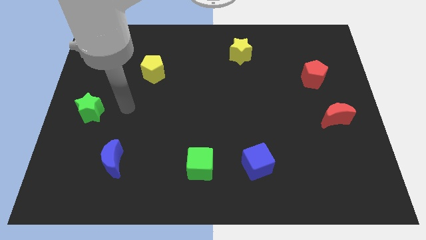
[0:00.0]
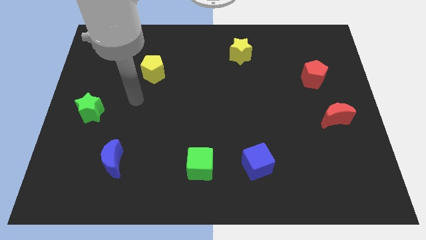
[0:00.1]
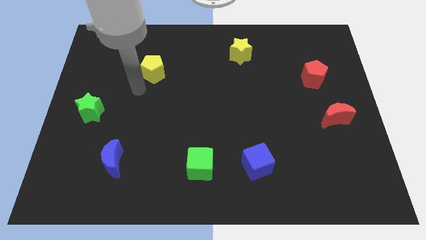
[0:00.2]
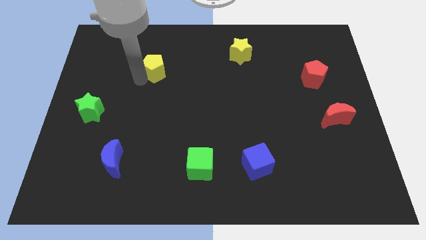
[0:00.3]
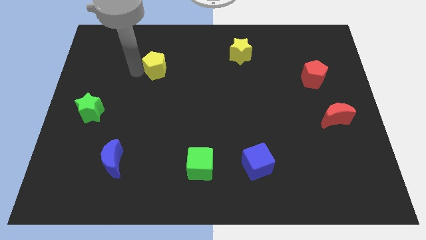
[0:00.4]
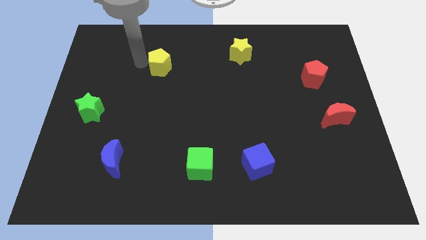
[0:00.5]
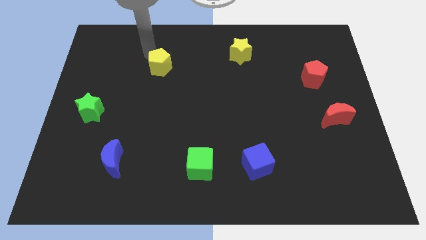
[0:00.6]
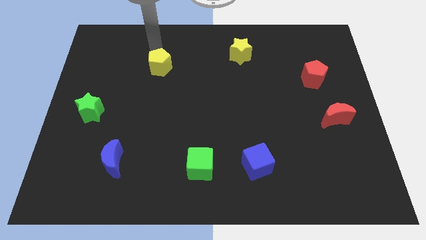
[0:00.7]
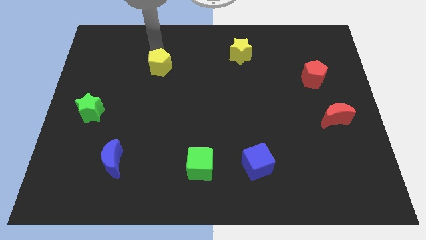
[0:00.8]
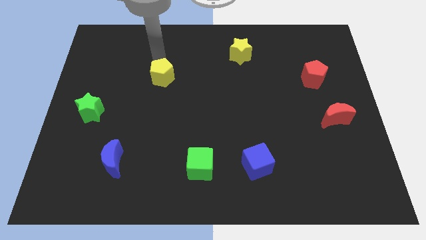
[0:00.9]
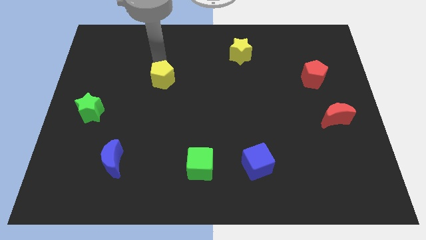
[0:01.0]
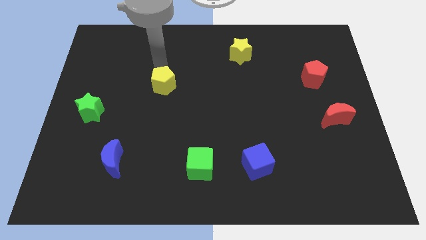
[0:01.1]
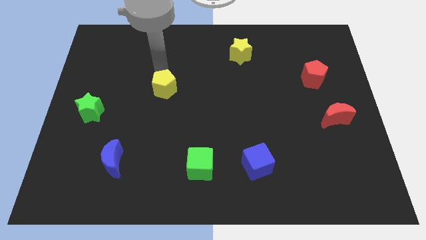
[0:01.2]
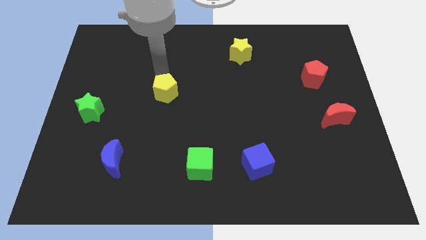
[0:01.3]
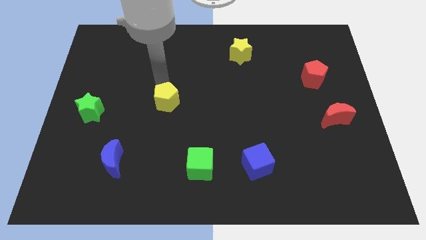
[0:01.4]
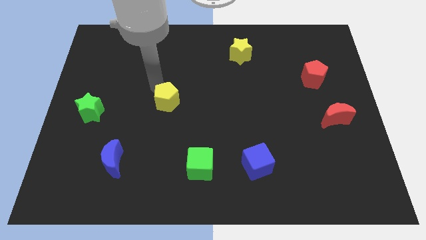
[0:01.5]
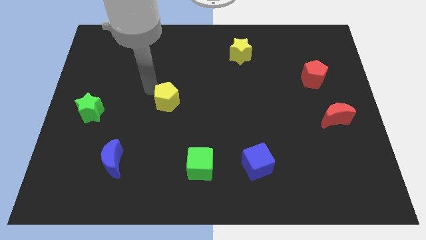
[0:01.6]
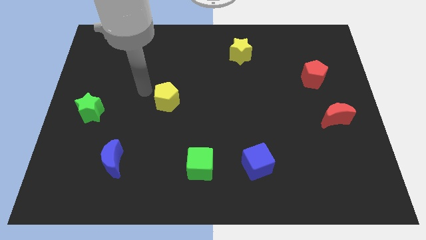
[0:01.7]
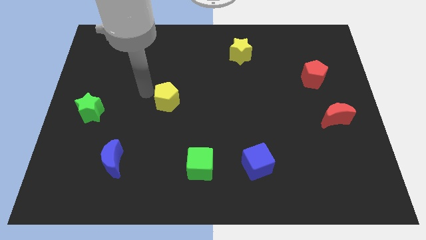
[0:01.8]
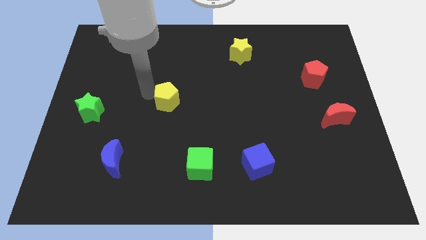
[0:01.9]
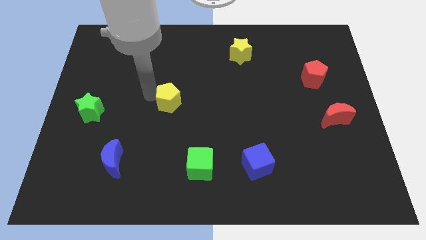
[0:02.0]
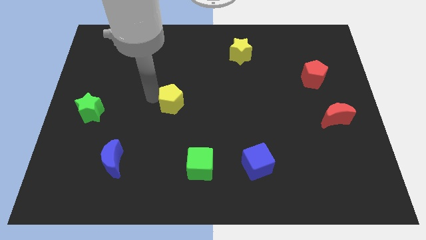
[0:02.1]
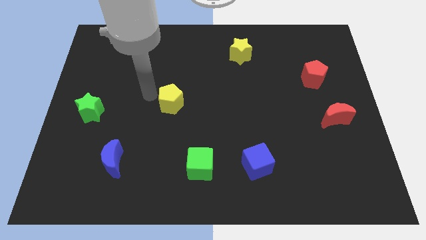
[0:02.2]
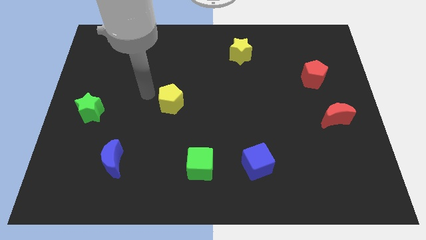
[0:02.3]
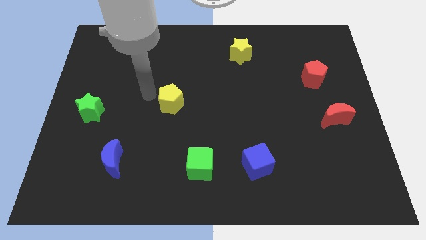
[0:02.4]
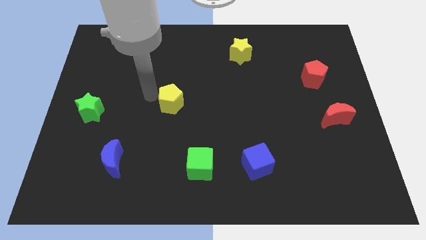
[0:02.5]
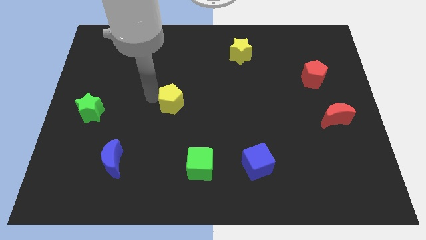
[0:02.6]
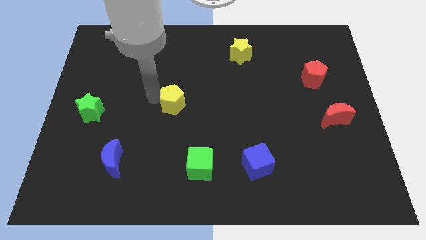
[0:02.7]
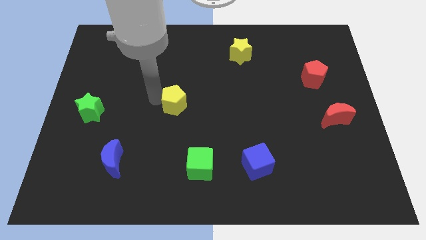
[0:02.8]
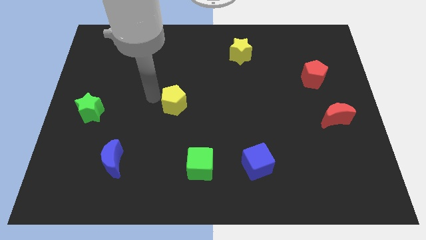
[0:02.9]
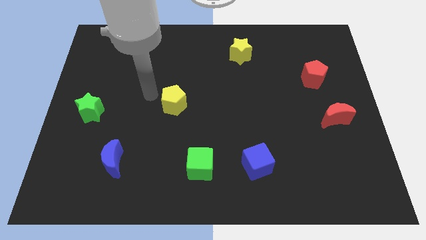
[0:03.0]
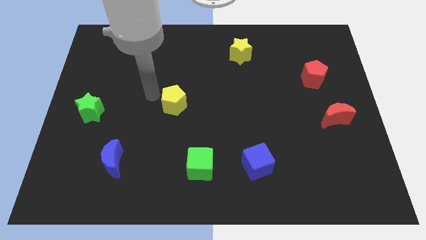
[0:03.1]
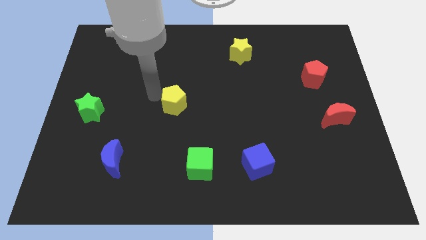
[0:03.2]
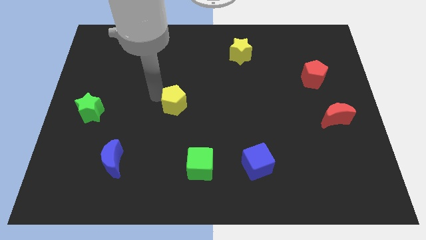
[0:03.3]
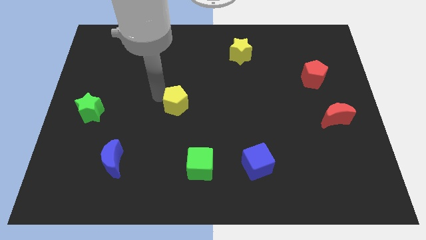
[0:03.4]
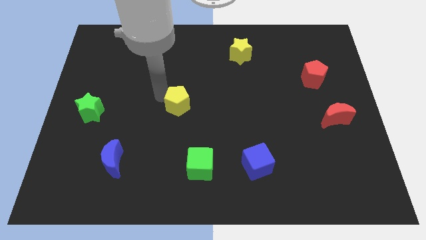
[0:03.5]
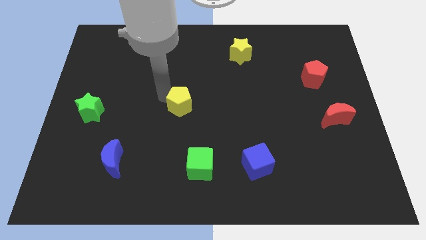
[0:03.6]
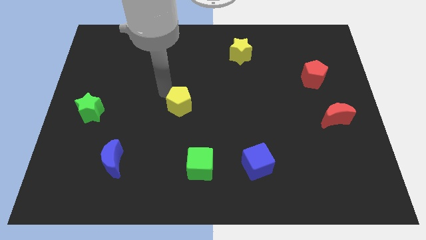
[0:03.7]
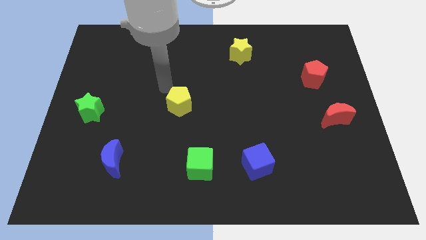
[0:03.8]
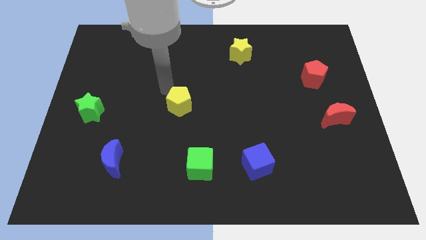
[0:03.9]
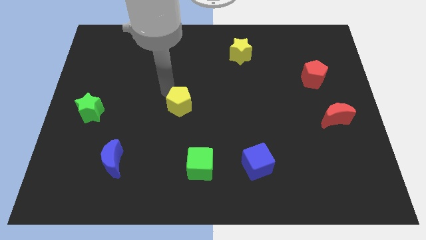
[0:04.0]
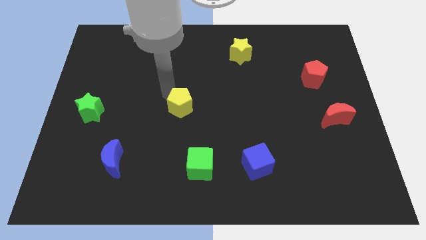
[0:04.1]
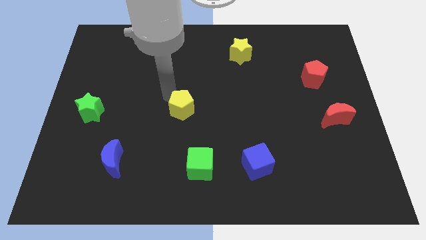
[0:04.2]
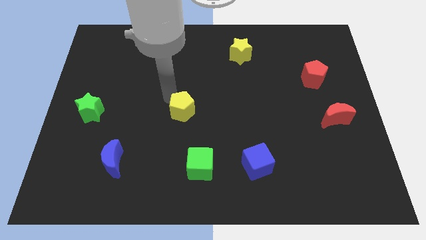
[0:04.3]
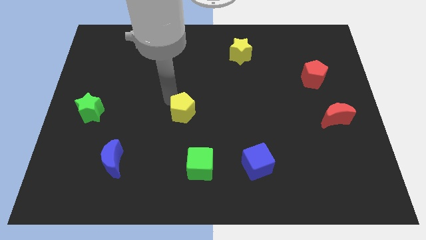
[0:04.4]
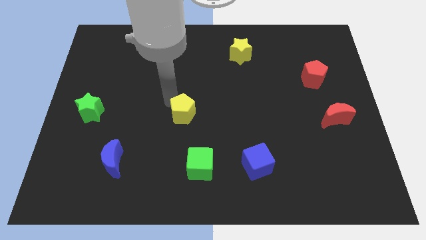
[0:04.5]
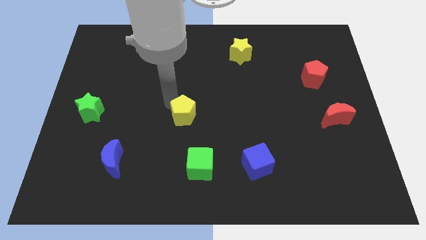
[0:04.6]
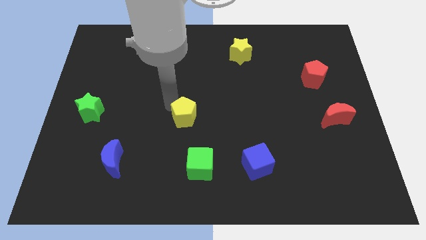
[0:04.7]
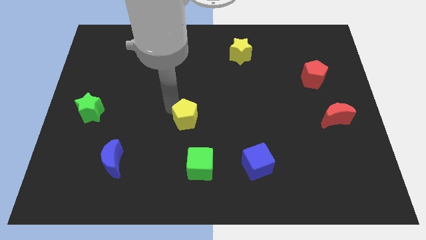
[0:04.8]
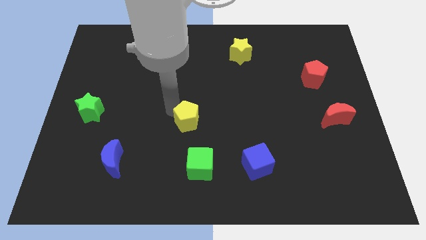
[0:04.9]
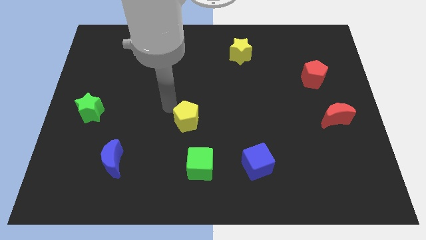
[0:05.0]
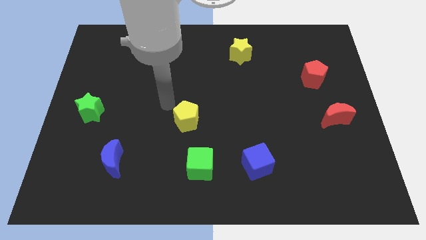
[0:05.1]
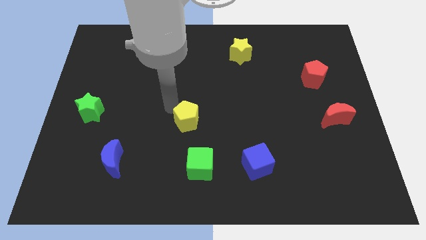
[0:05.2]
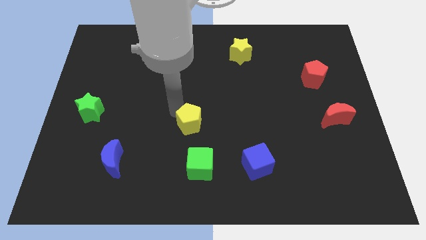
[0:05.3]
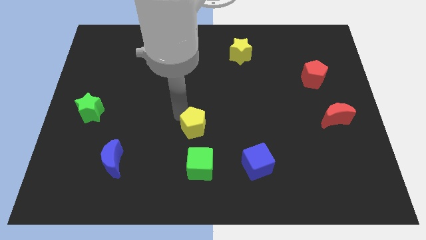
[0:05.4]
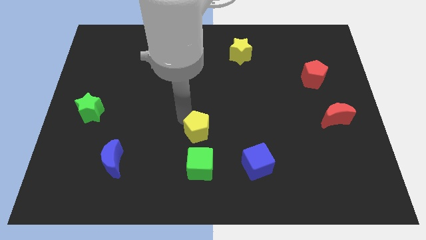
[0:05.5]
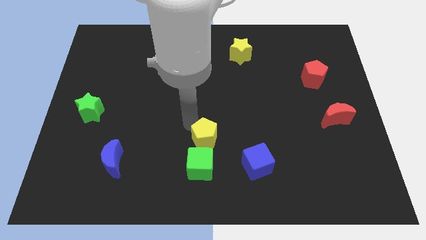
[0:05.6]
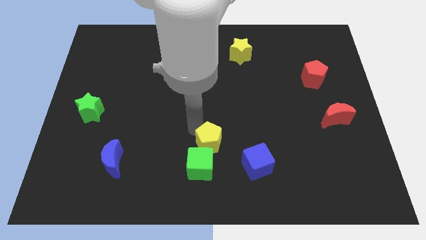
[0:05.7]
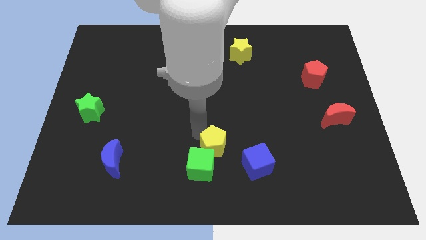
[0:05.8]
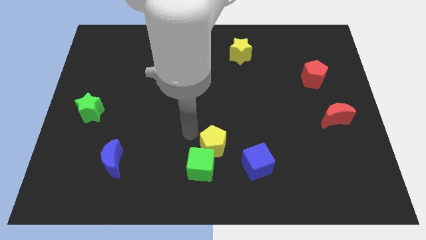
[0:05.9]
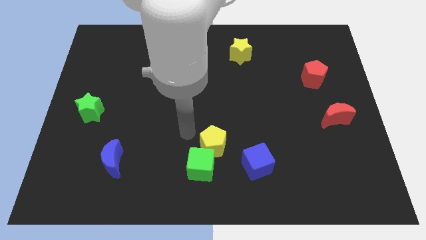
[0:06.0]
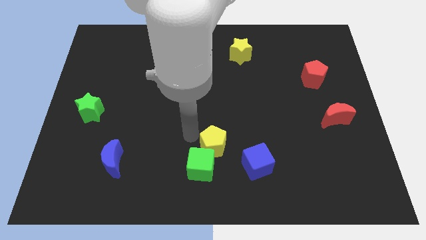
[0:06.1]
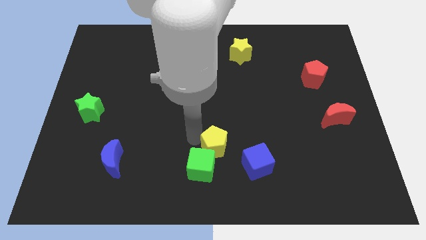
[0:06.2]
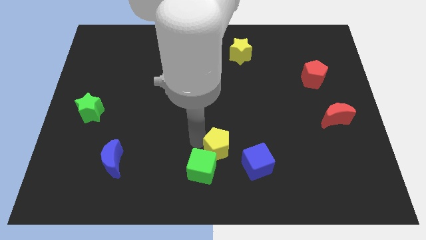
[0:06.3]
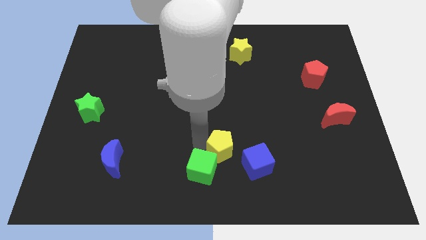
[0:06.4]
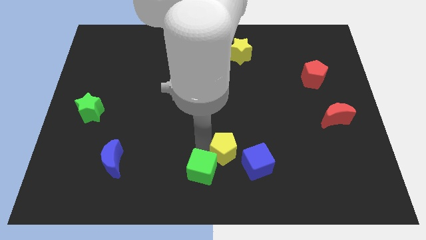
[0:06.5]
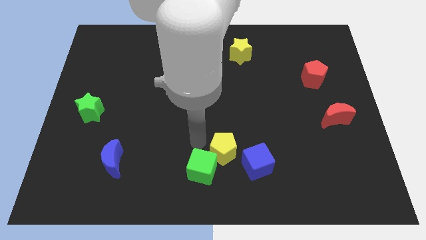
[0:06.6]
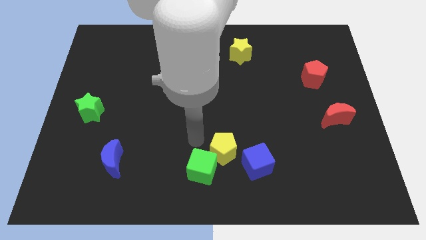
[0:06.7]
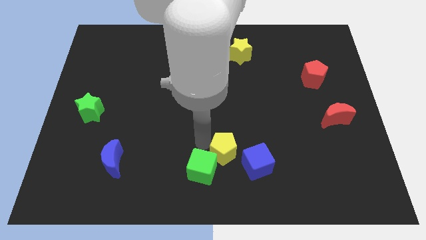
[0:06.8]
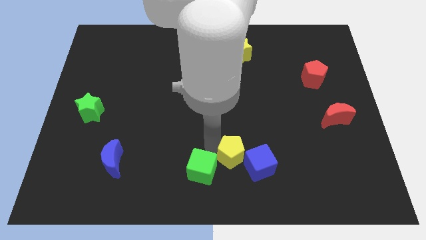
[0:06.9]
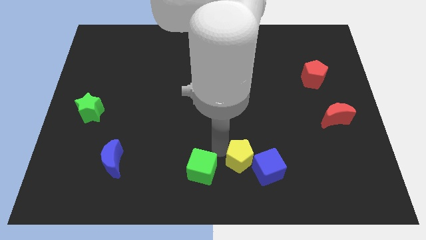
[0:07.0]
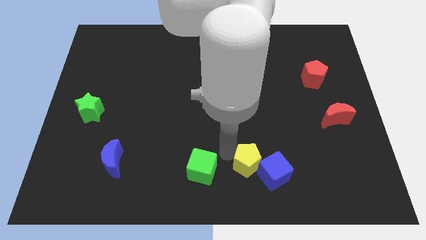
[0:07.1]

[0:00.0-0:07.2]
push the yellow pentagon close to the blue cube

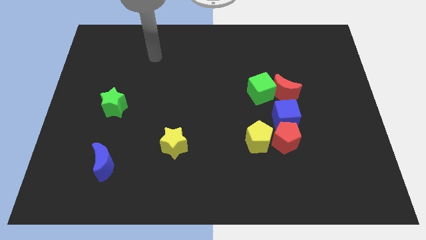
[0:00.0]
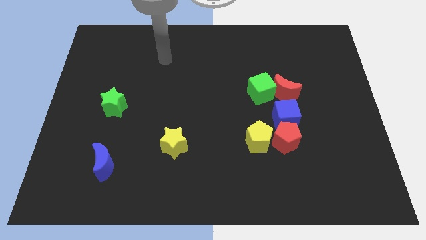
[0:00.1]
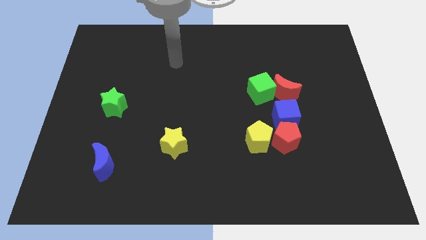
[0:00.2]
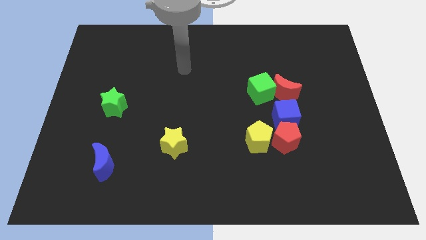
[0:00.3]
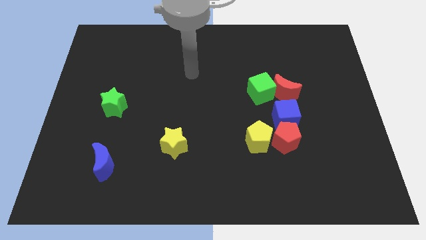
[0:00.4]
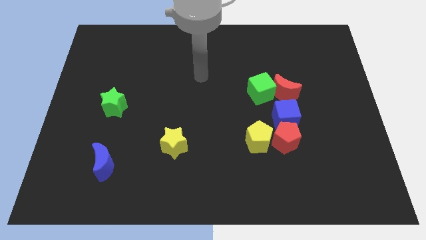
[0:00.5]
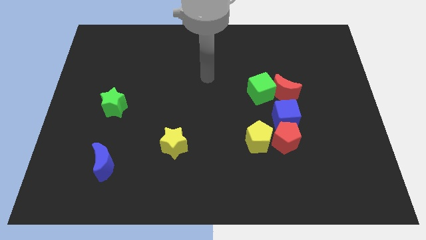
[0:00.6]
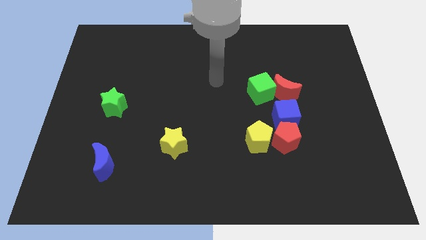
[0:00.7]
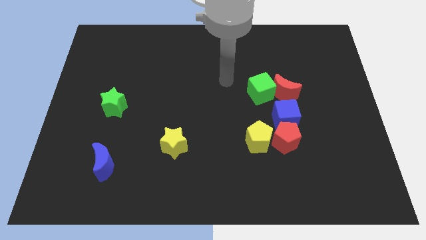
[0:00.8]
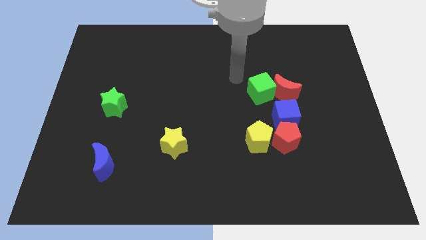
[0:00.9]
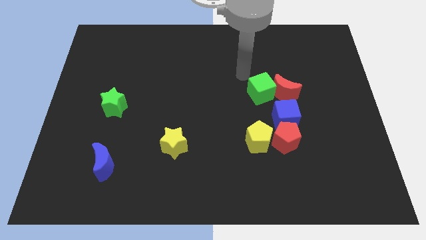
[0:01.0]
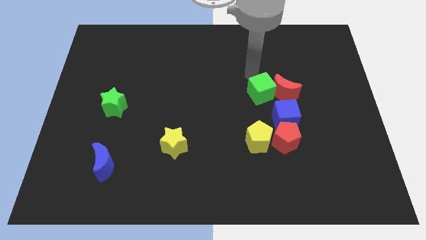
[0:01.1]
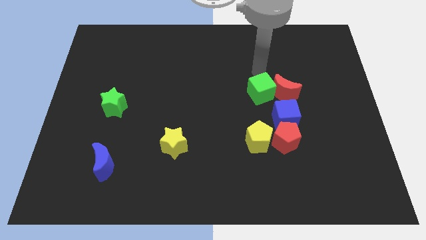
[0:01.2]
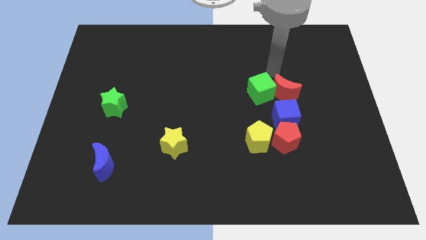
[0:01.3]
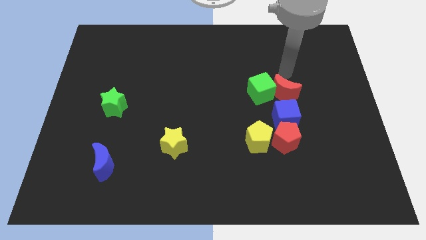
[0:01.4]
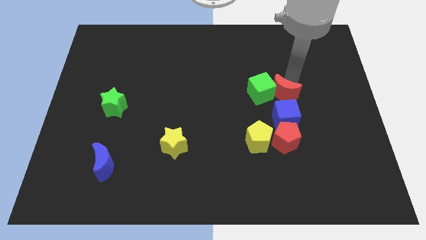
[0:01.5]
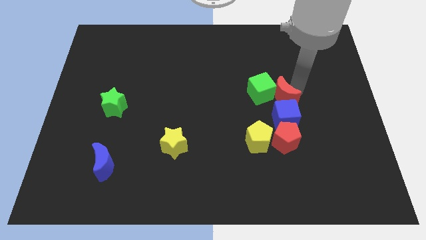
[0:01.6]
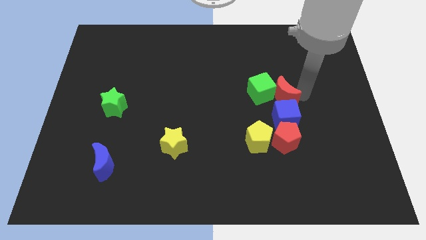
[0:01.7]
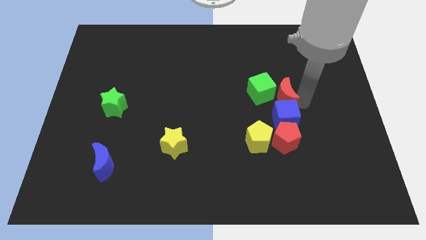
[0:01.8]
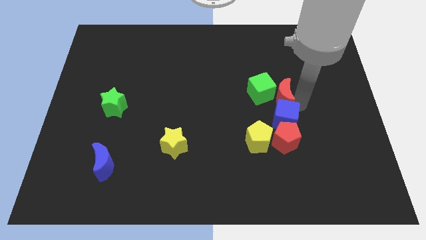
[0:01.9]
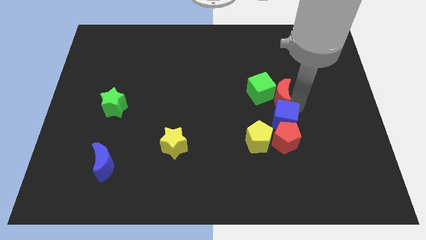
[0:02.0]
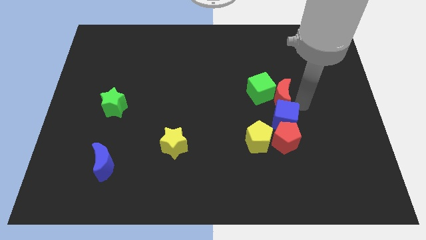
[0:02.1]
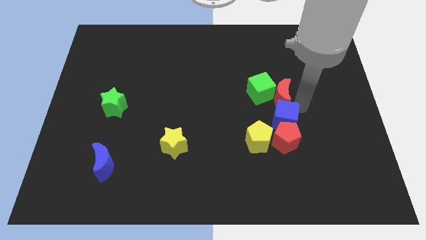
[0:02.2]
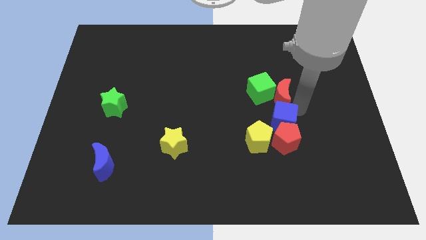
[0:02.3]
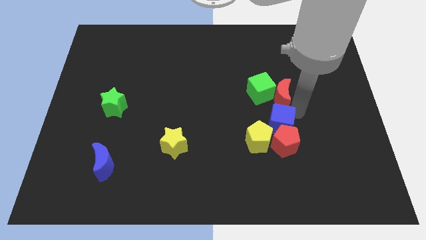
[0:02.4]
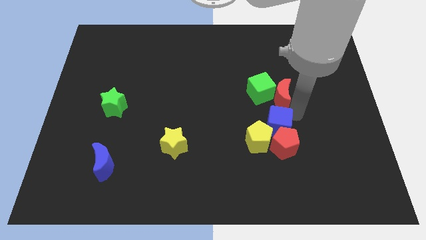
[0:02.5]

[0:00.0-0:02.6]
move the blue cube to the yellow pentagon
